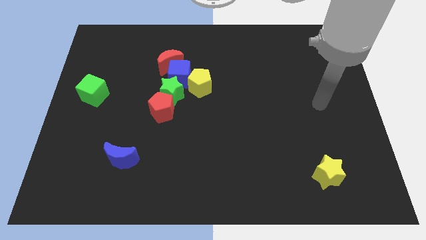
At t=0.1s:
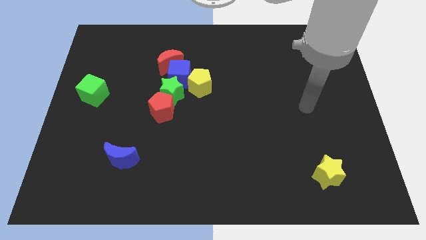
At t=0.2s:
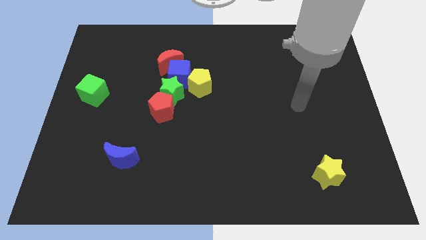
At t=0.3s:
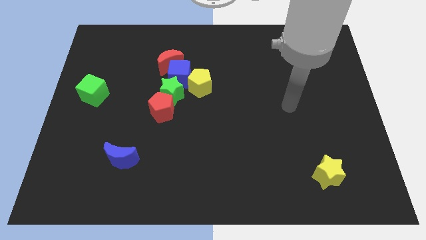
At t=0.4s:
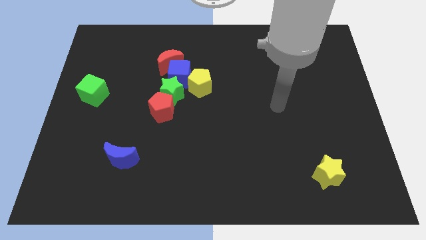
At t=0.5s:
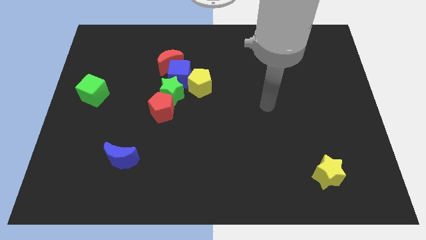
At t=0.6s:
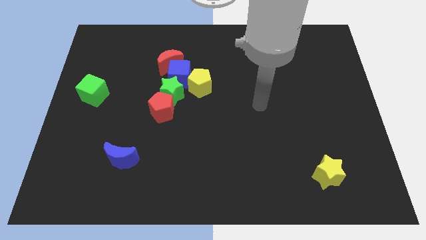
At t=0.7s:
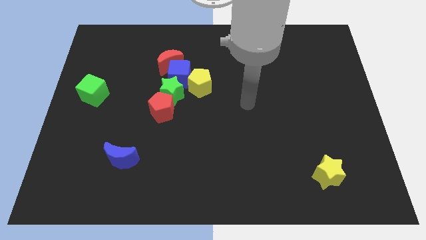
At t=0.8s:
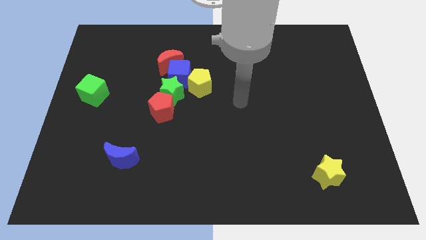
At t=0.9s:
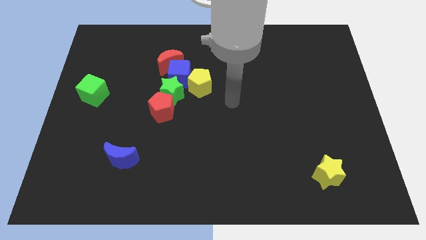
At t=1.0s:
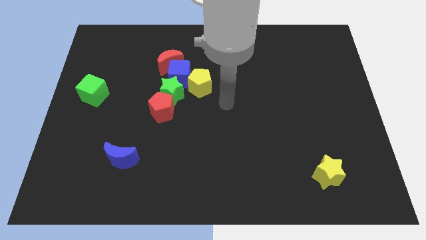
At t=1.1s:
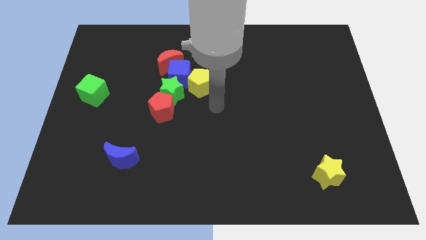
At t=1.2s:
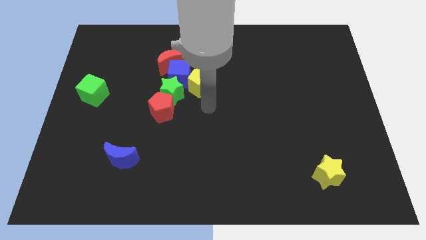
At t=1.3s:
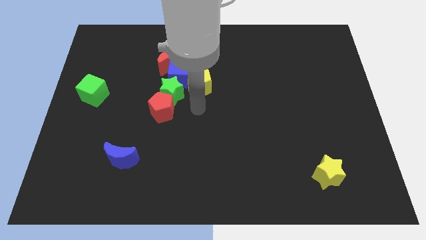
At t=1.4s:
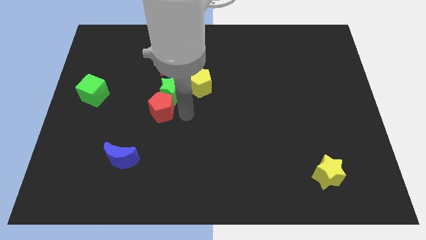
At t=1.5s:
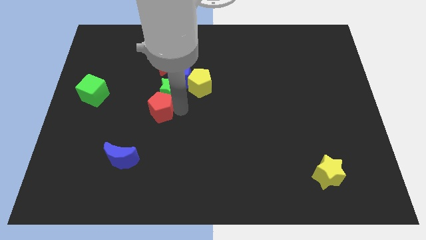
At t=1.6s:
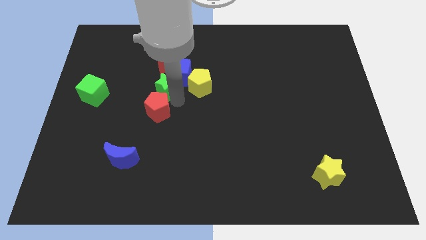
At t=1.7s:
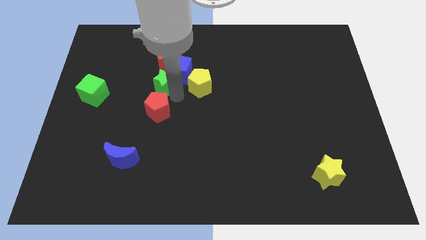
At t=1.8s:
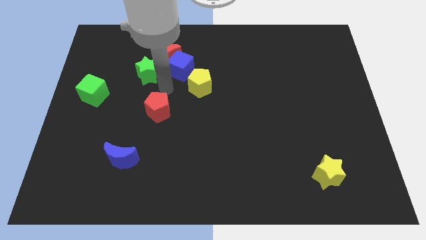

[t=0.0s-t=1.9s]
move the red pentagon away from the green star

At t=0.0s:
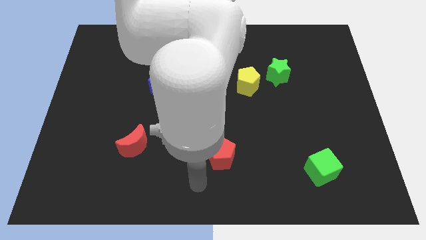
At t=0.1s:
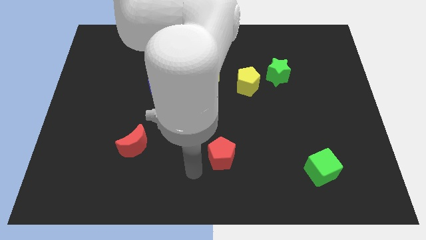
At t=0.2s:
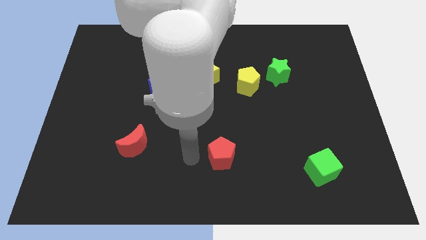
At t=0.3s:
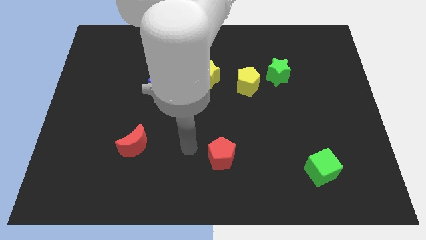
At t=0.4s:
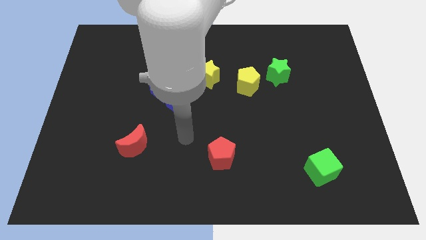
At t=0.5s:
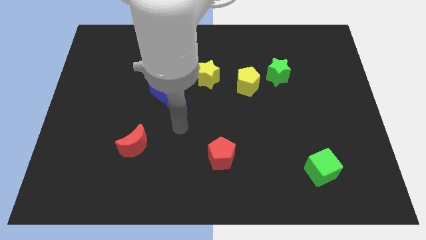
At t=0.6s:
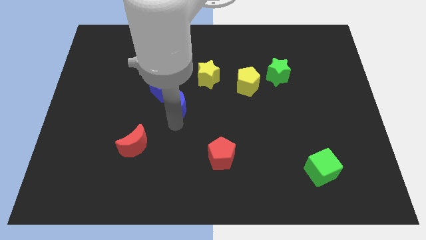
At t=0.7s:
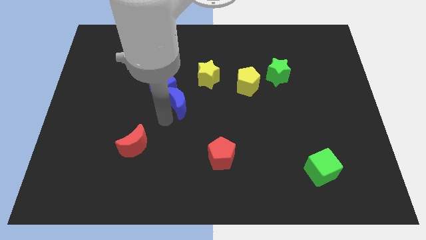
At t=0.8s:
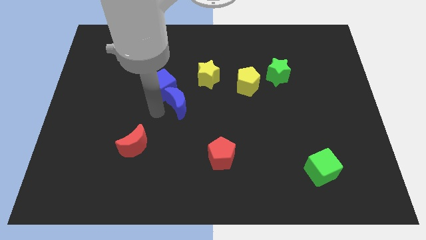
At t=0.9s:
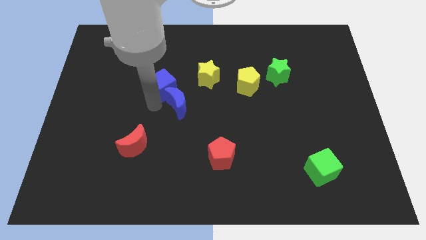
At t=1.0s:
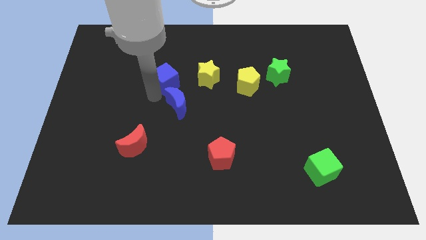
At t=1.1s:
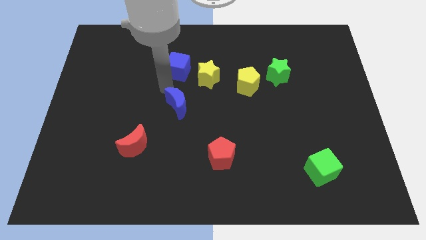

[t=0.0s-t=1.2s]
move the blue moon away from the blue cube

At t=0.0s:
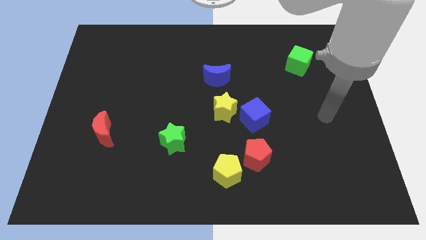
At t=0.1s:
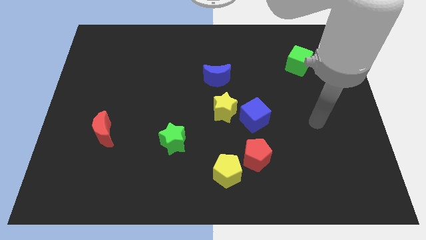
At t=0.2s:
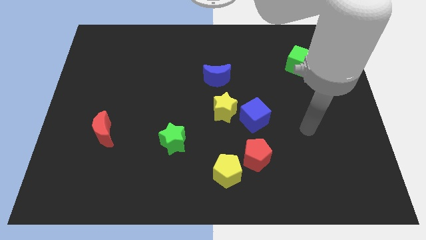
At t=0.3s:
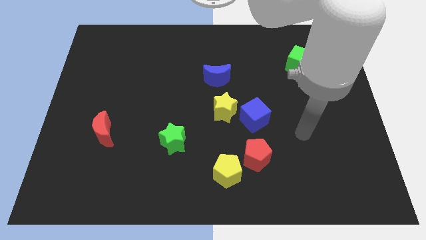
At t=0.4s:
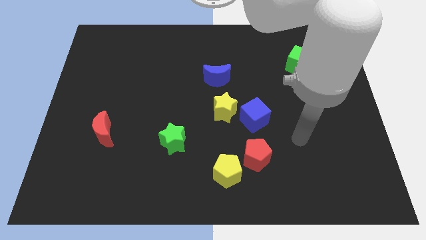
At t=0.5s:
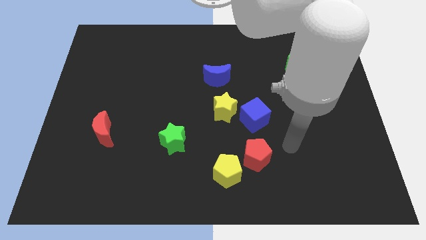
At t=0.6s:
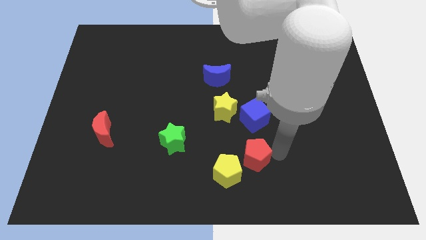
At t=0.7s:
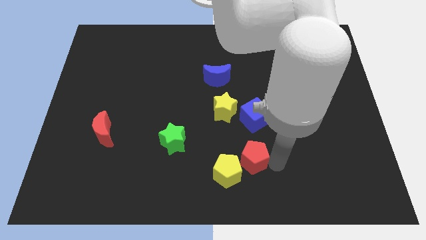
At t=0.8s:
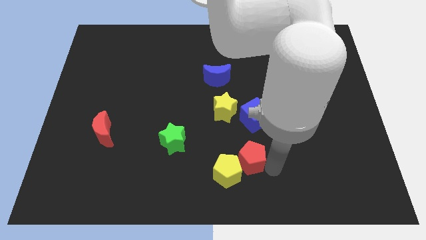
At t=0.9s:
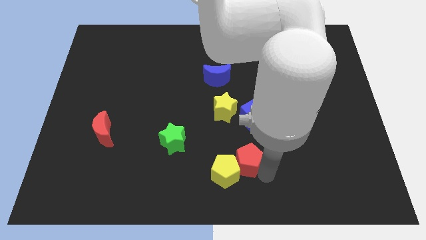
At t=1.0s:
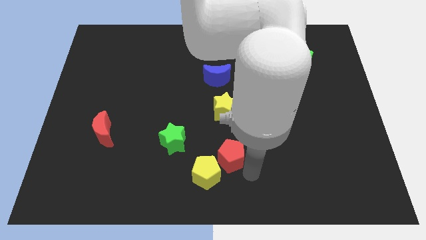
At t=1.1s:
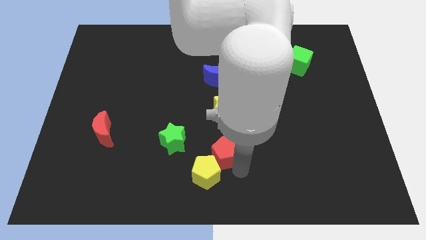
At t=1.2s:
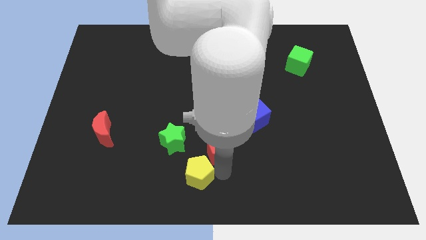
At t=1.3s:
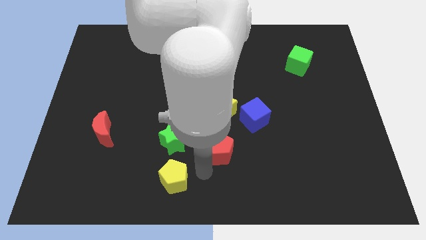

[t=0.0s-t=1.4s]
separate the red pentagon from the yellow pentagon

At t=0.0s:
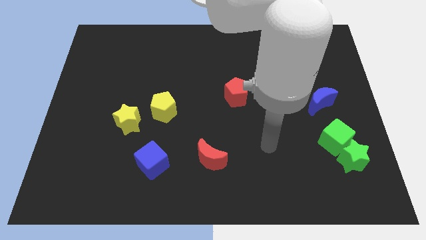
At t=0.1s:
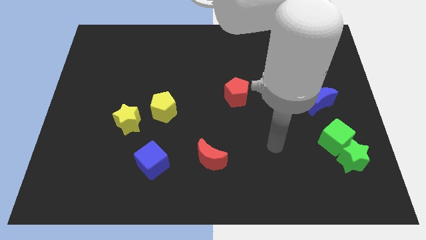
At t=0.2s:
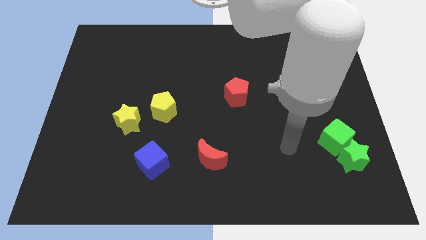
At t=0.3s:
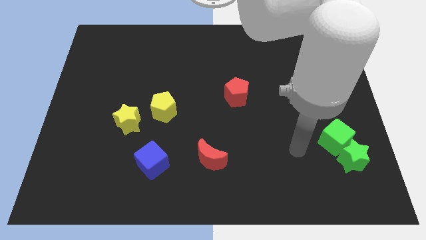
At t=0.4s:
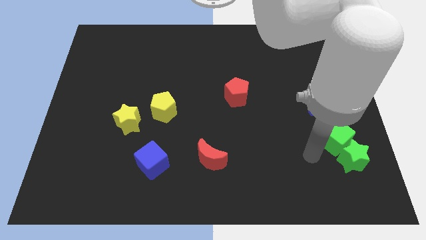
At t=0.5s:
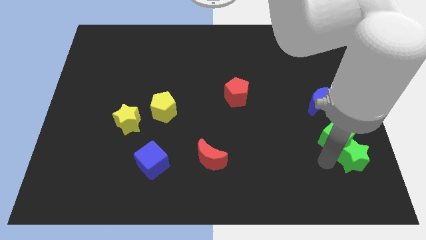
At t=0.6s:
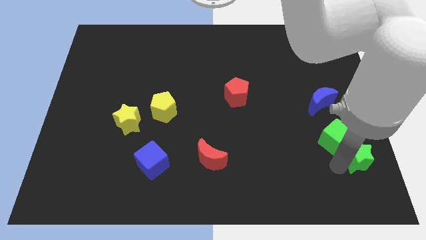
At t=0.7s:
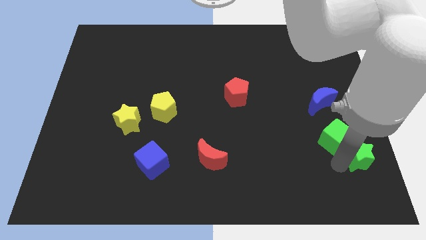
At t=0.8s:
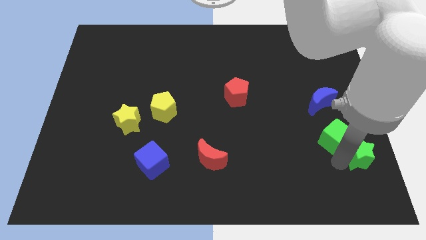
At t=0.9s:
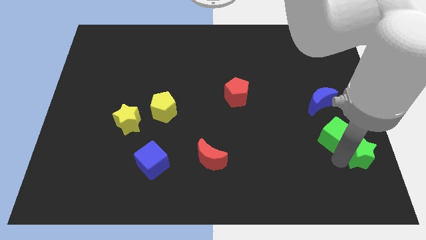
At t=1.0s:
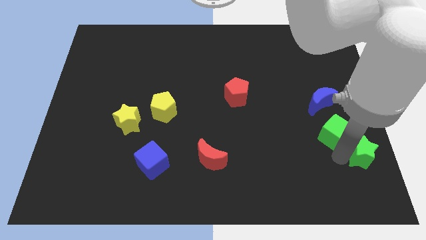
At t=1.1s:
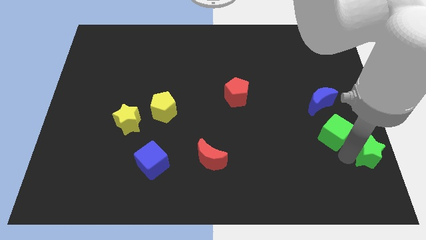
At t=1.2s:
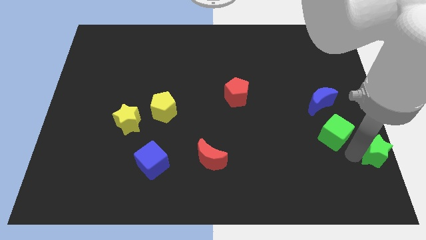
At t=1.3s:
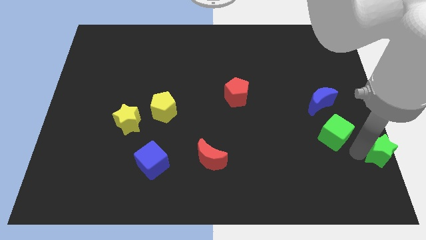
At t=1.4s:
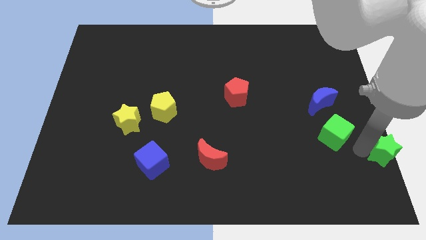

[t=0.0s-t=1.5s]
pull the green cube apart from the green star

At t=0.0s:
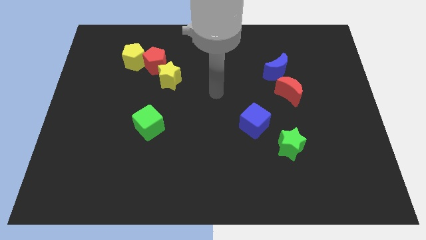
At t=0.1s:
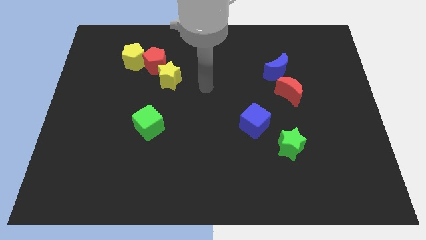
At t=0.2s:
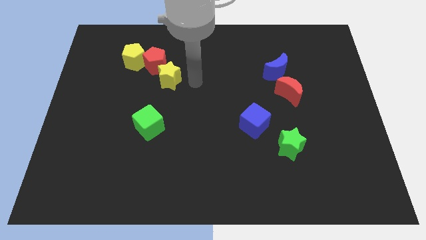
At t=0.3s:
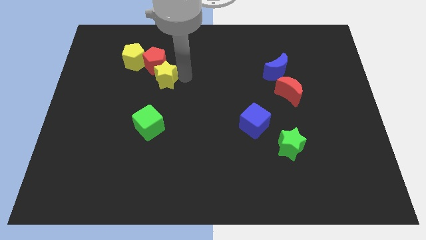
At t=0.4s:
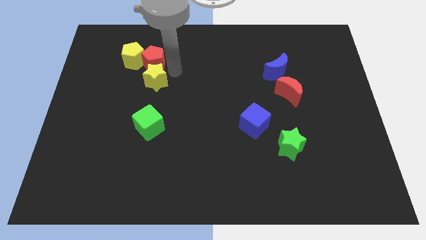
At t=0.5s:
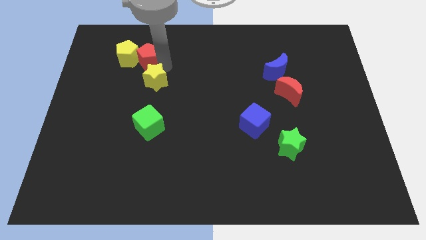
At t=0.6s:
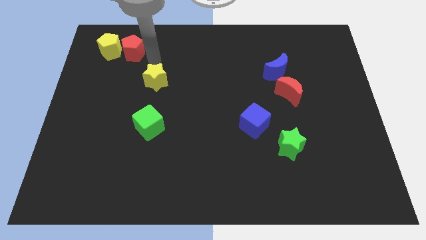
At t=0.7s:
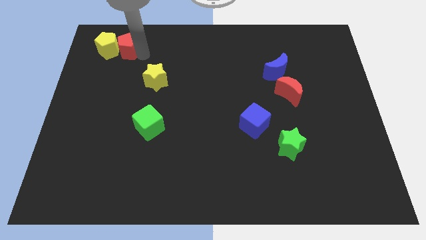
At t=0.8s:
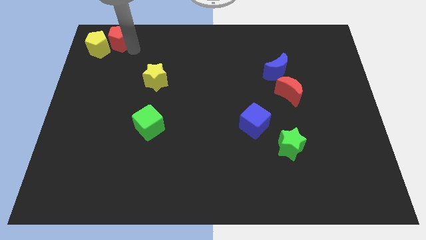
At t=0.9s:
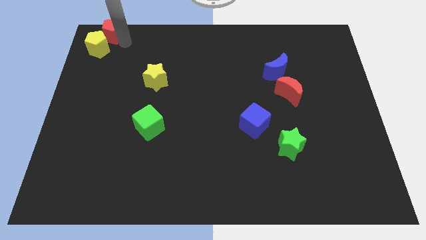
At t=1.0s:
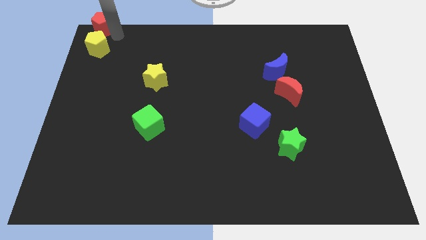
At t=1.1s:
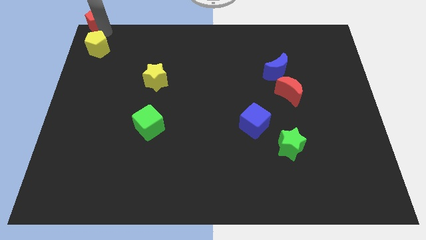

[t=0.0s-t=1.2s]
pull the yellow pentagon apart from the red pentagon

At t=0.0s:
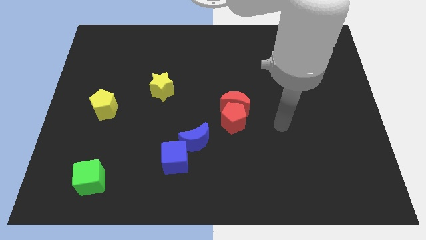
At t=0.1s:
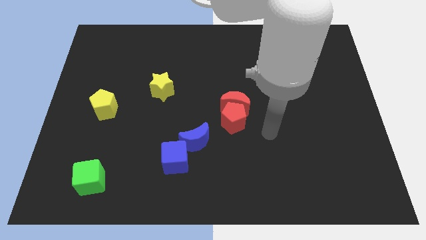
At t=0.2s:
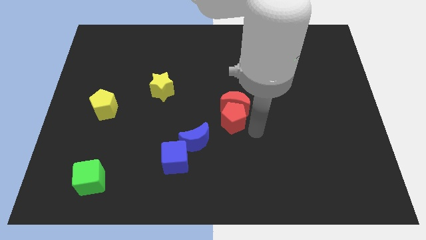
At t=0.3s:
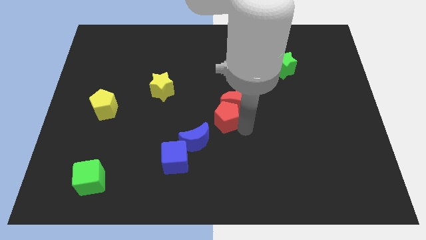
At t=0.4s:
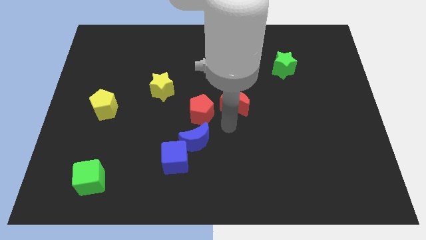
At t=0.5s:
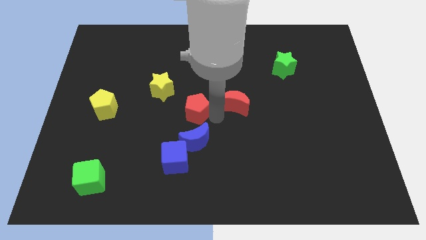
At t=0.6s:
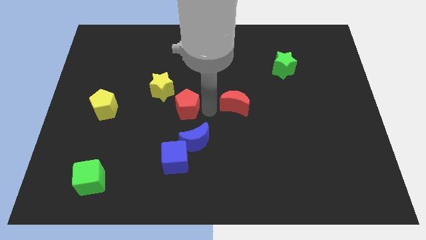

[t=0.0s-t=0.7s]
pull the red moon apart from the red pentagon

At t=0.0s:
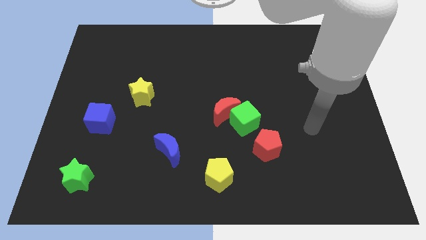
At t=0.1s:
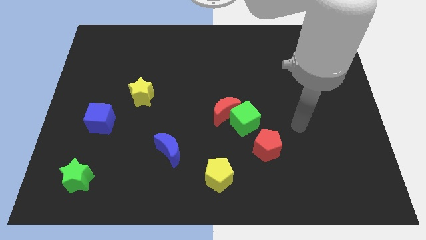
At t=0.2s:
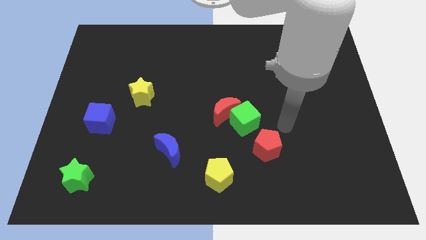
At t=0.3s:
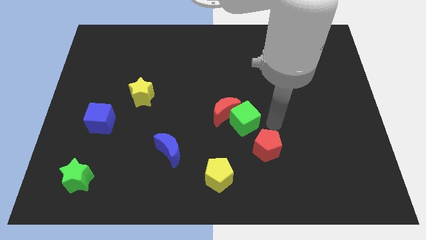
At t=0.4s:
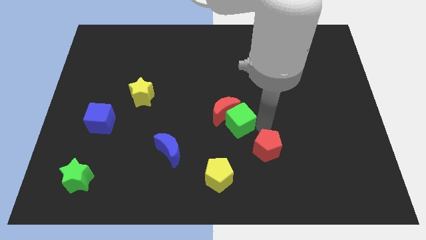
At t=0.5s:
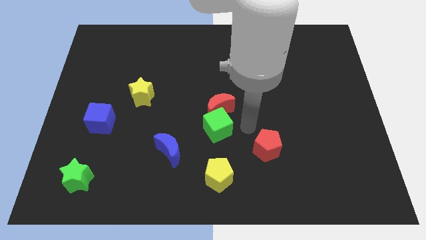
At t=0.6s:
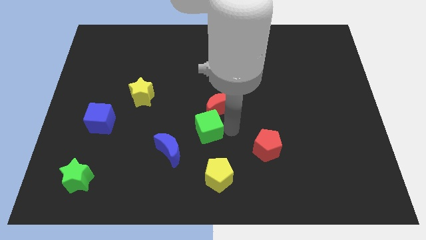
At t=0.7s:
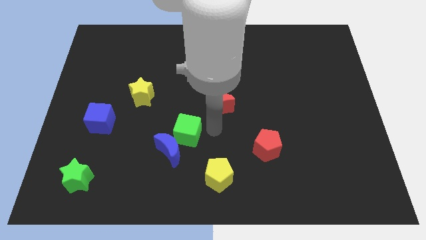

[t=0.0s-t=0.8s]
move the red moon away from the green cube

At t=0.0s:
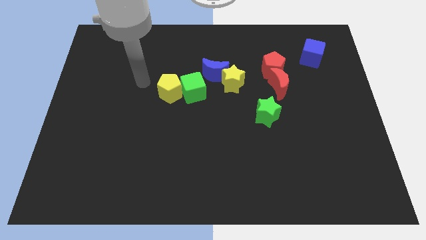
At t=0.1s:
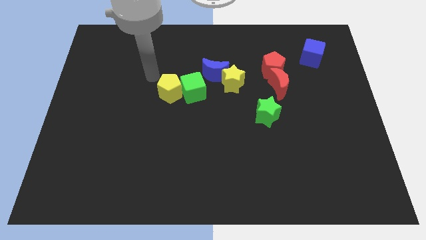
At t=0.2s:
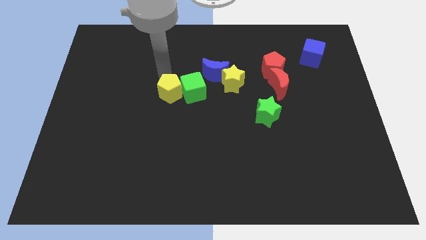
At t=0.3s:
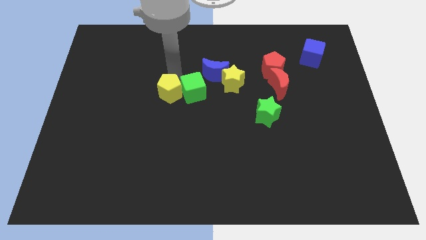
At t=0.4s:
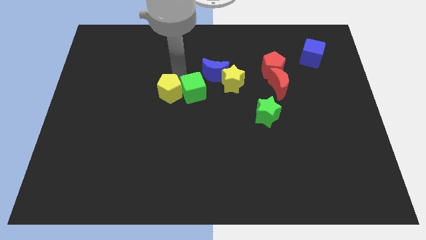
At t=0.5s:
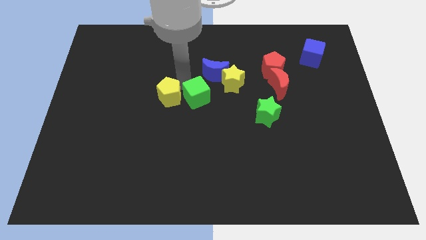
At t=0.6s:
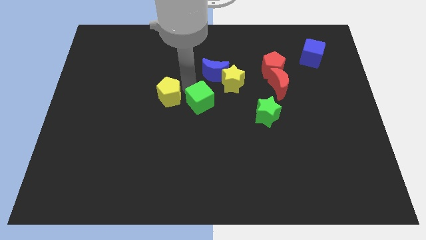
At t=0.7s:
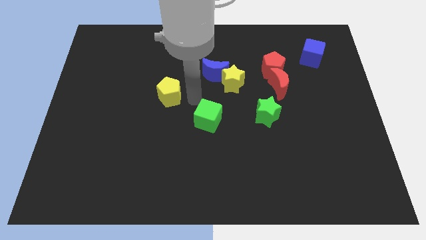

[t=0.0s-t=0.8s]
separate the yellow pentagon from the green cube
